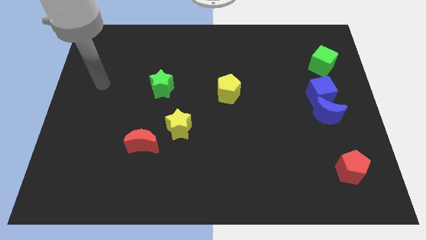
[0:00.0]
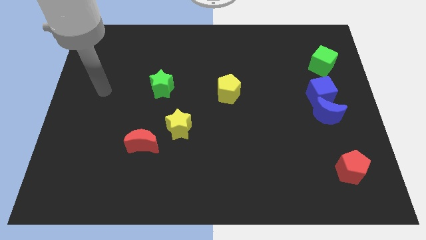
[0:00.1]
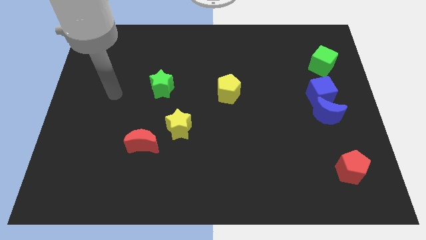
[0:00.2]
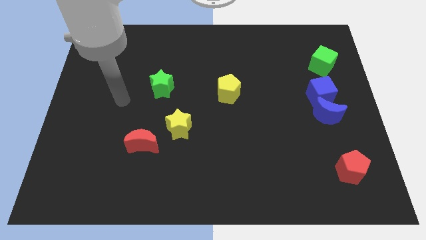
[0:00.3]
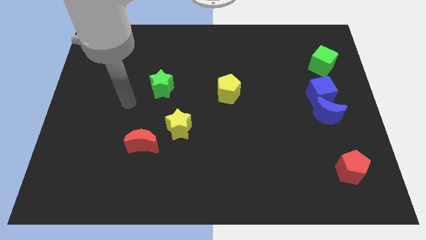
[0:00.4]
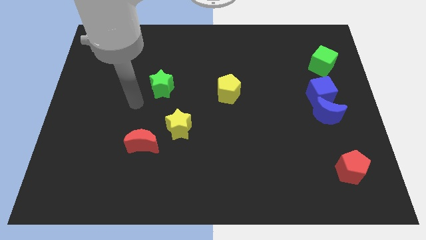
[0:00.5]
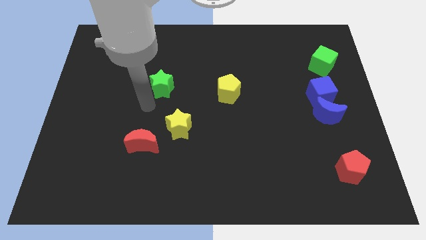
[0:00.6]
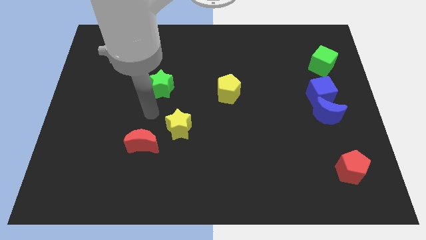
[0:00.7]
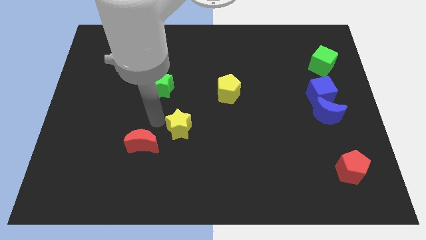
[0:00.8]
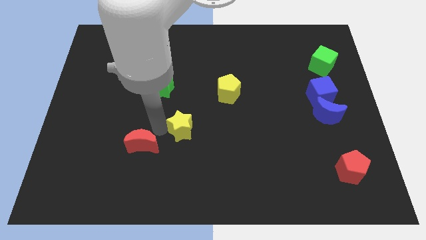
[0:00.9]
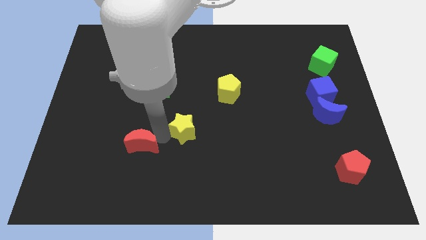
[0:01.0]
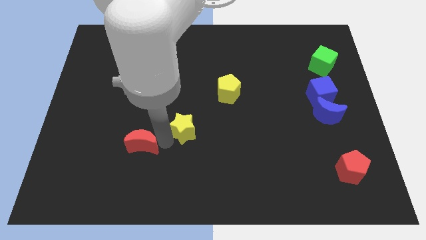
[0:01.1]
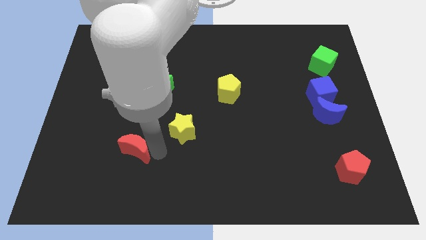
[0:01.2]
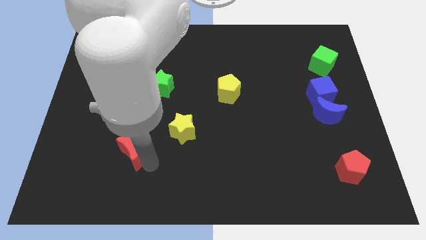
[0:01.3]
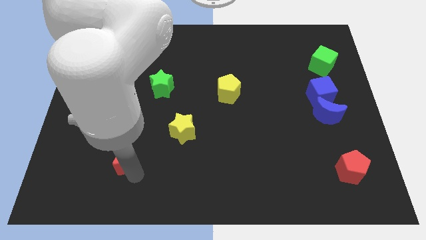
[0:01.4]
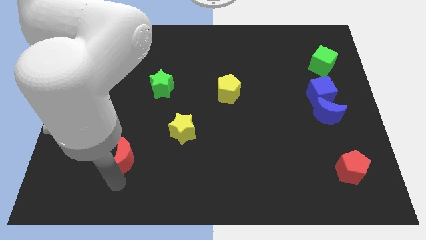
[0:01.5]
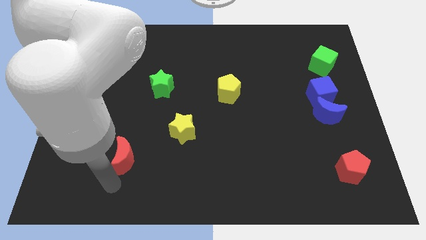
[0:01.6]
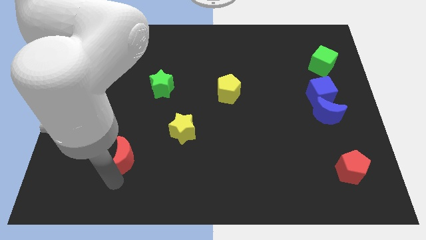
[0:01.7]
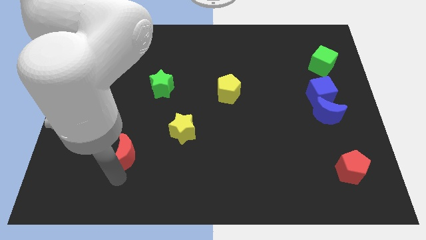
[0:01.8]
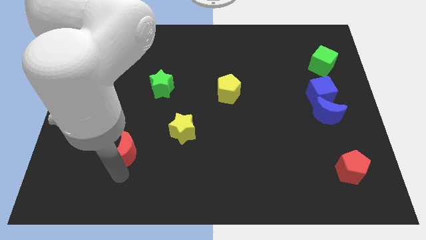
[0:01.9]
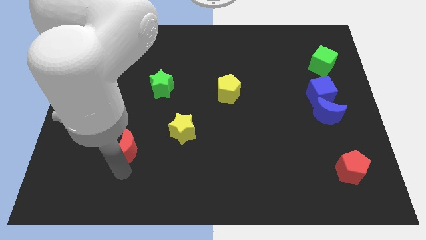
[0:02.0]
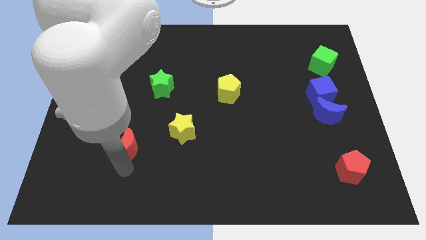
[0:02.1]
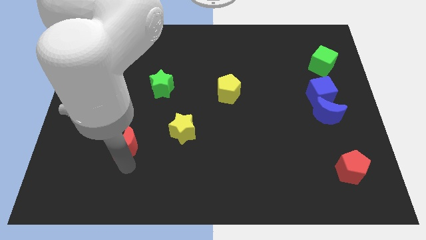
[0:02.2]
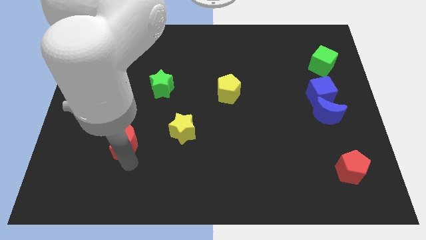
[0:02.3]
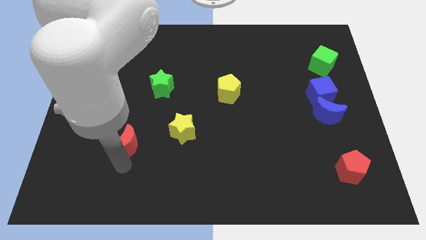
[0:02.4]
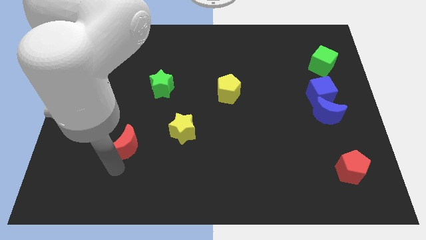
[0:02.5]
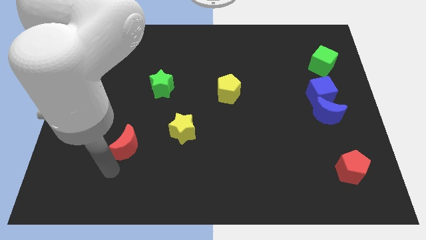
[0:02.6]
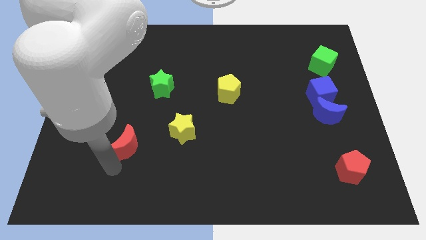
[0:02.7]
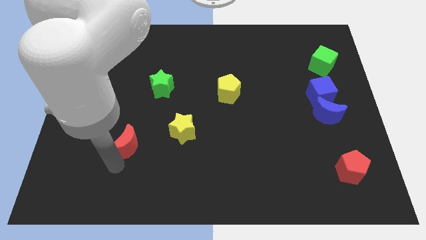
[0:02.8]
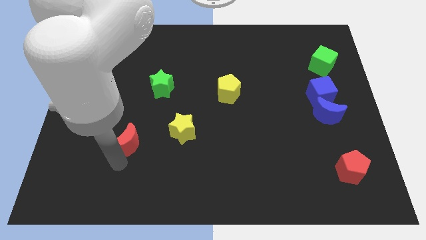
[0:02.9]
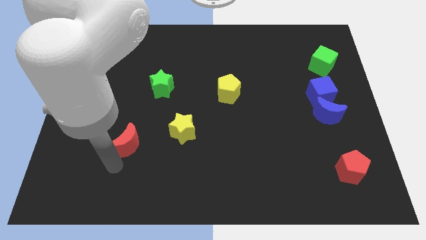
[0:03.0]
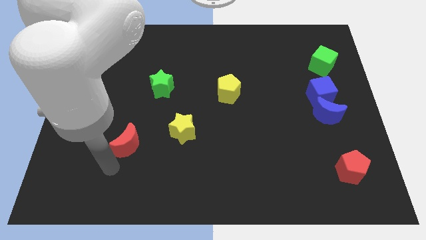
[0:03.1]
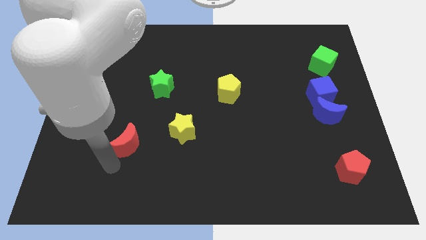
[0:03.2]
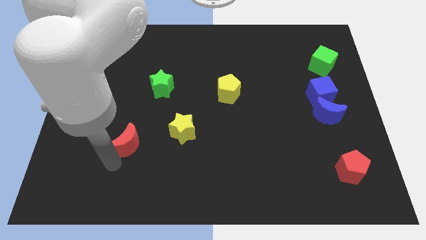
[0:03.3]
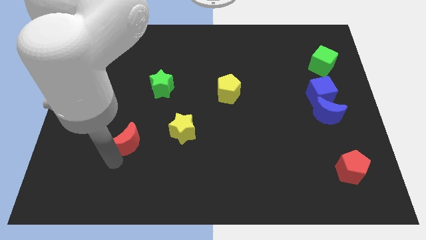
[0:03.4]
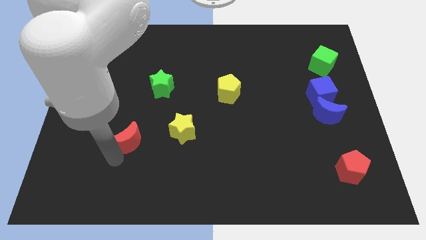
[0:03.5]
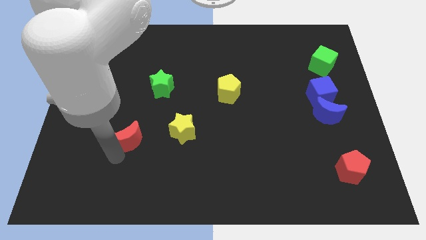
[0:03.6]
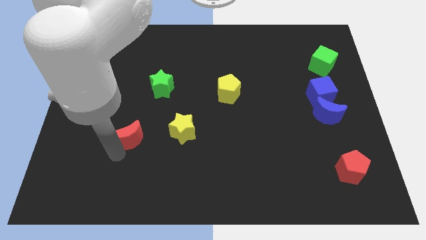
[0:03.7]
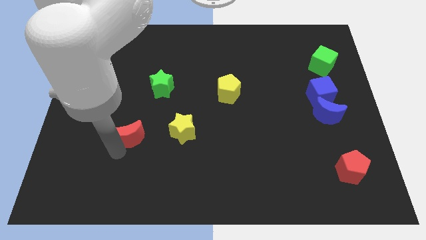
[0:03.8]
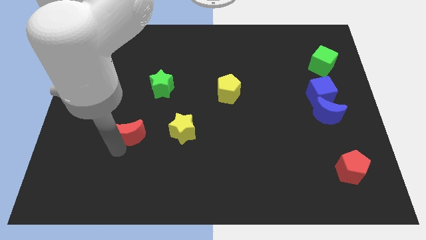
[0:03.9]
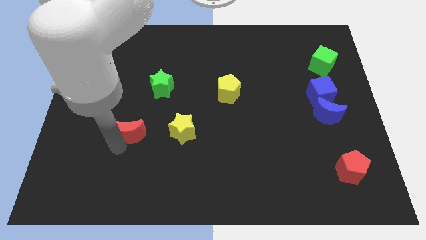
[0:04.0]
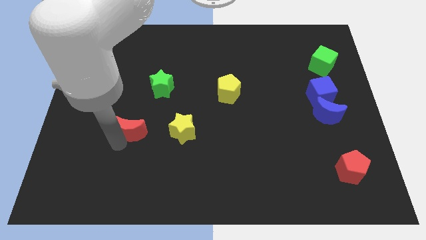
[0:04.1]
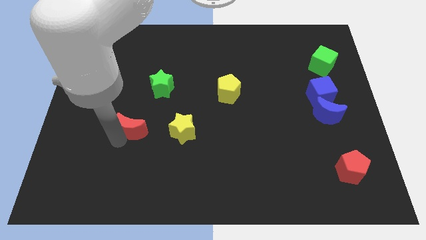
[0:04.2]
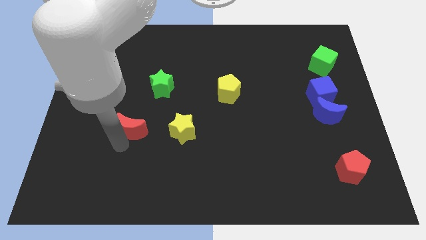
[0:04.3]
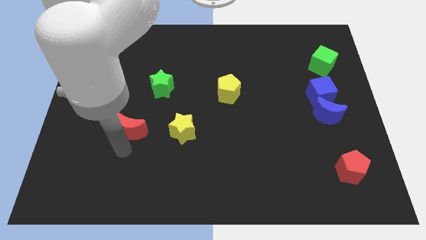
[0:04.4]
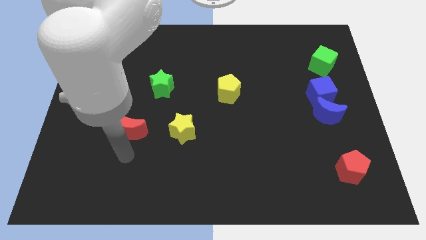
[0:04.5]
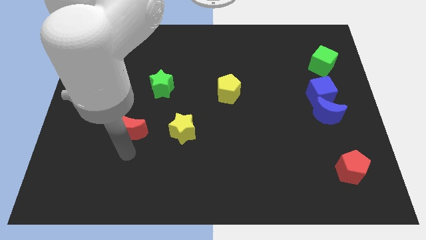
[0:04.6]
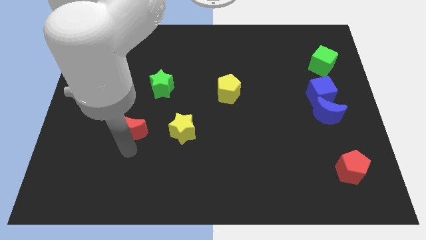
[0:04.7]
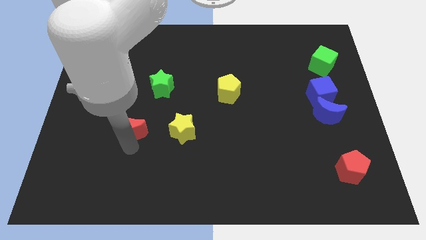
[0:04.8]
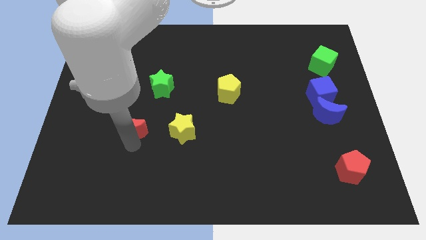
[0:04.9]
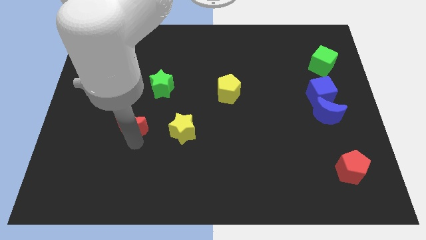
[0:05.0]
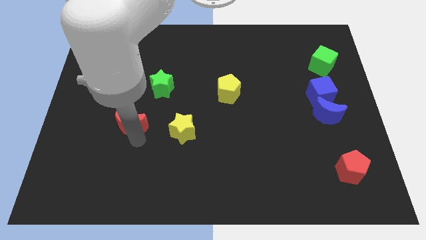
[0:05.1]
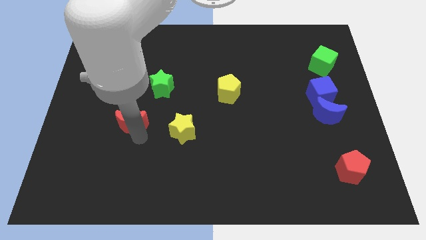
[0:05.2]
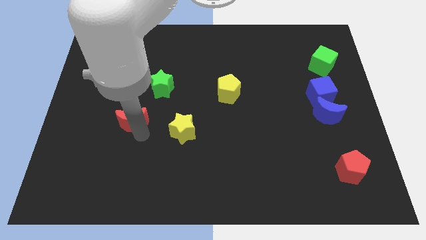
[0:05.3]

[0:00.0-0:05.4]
push the red moon diagonally down and to the left of the green star

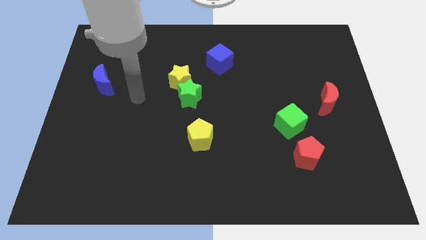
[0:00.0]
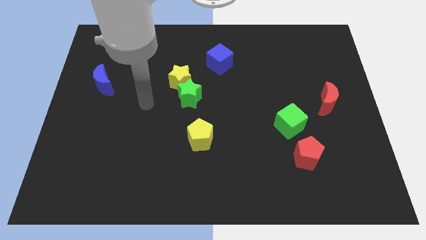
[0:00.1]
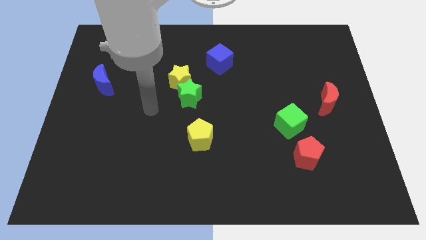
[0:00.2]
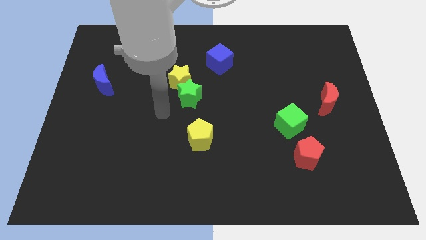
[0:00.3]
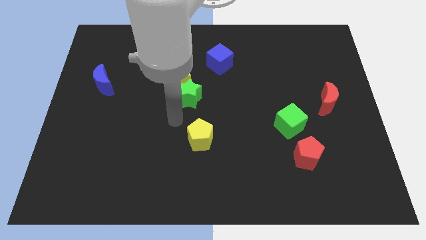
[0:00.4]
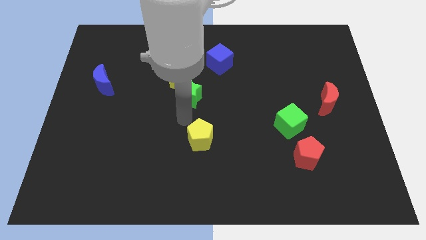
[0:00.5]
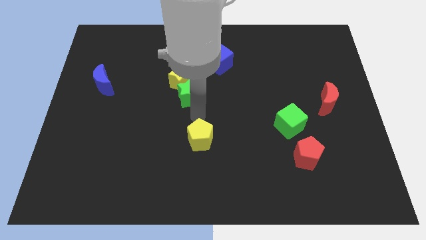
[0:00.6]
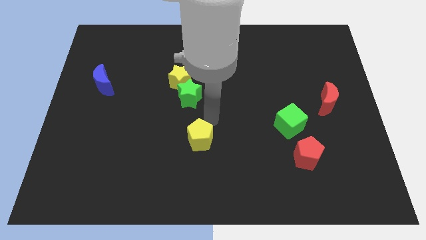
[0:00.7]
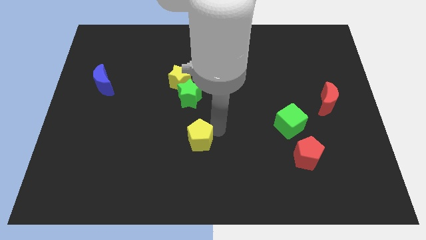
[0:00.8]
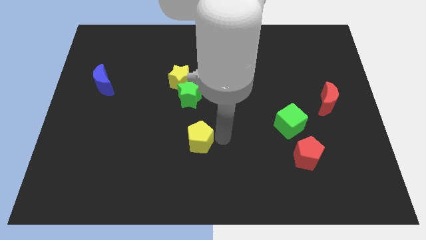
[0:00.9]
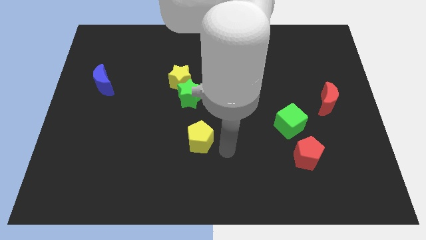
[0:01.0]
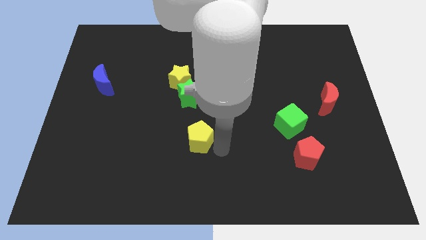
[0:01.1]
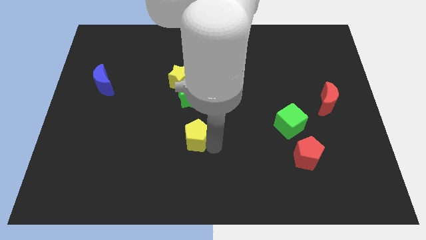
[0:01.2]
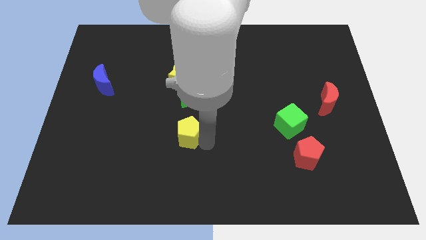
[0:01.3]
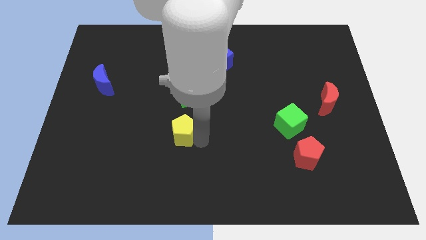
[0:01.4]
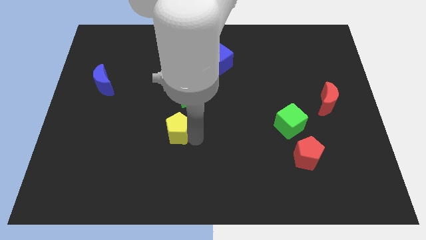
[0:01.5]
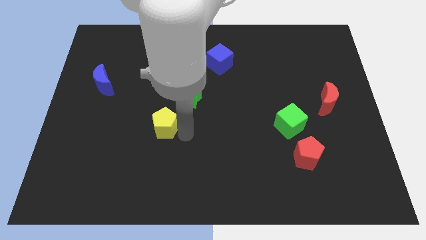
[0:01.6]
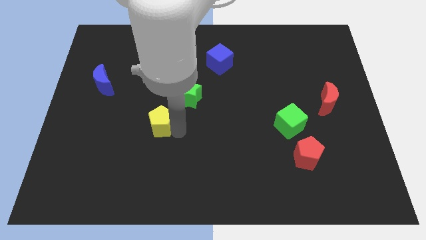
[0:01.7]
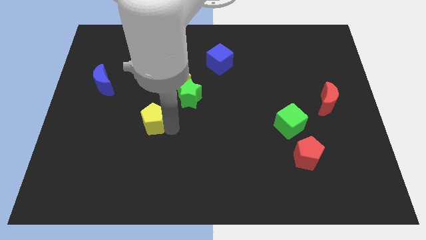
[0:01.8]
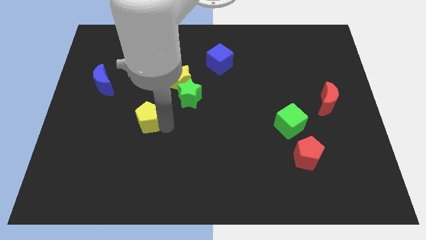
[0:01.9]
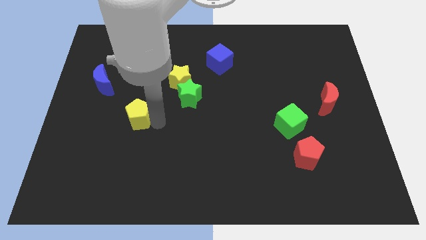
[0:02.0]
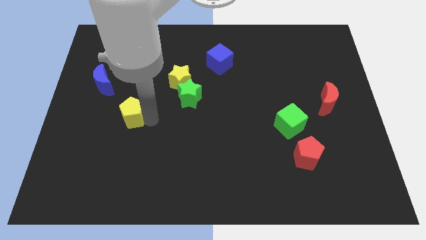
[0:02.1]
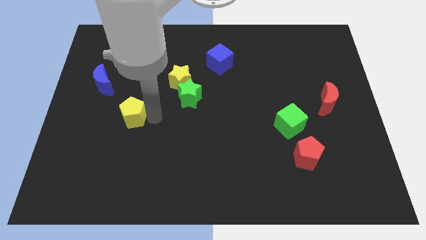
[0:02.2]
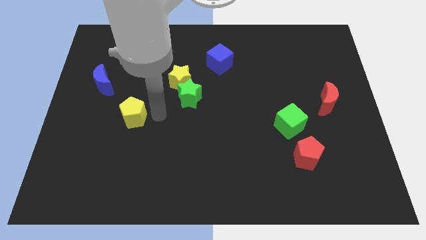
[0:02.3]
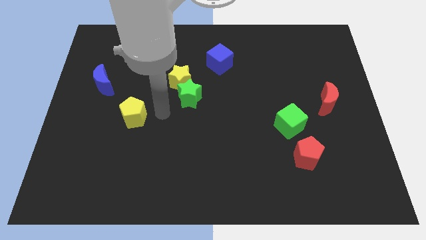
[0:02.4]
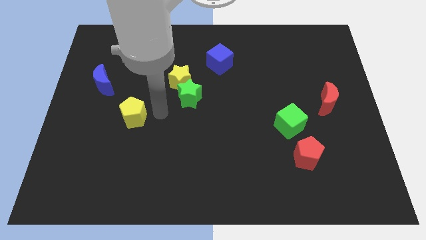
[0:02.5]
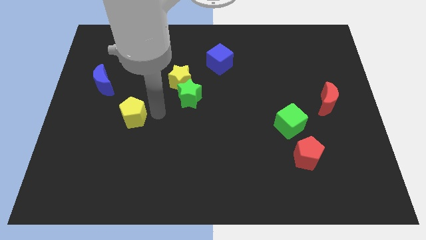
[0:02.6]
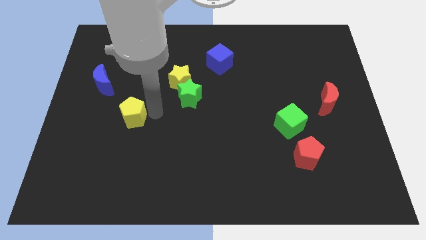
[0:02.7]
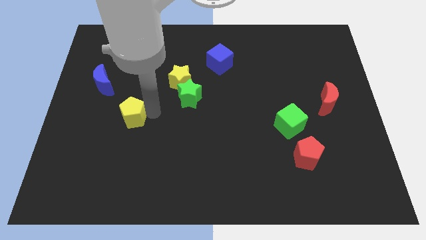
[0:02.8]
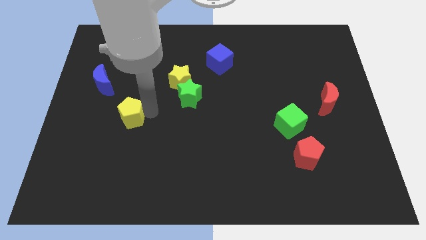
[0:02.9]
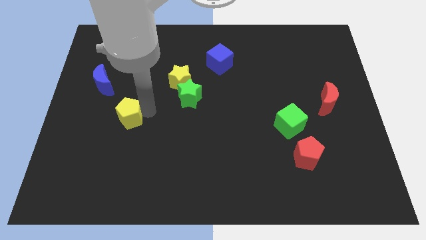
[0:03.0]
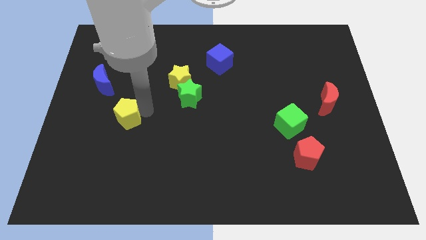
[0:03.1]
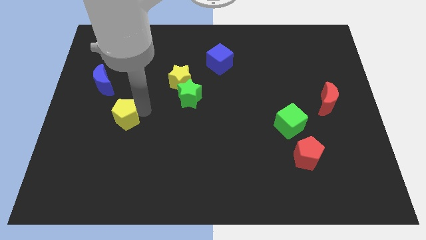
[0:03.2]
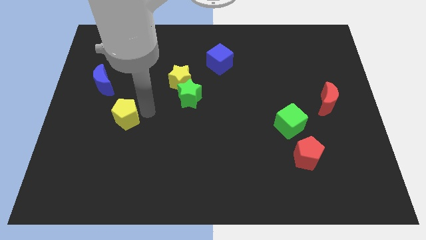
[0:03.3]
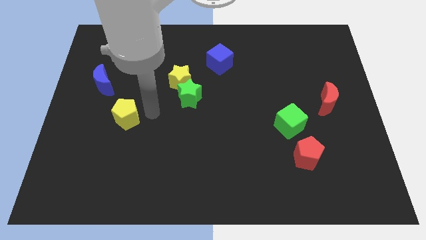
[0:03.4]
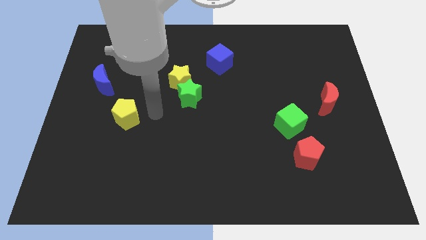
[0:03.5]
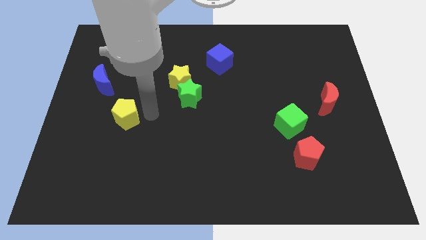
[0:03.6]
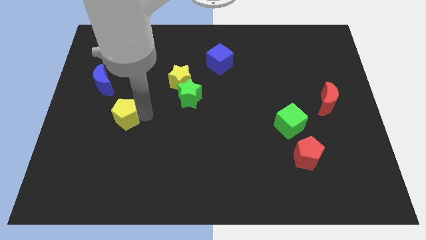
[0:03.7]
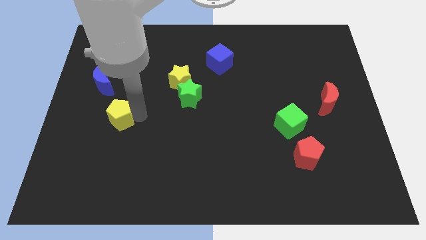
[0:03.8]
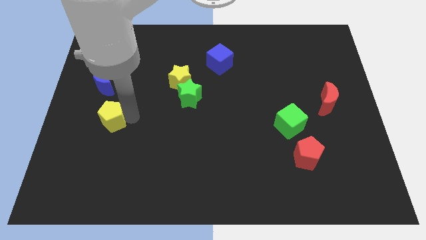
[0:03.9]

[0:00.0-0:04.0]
put the yellow pentagon to the bottom side of the blue moon
